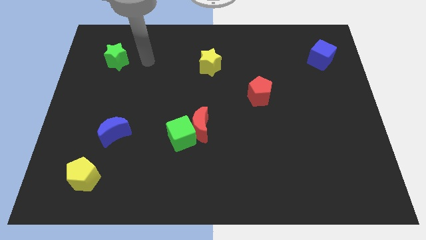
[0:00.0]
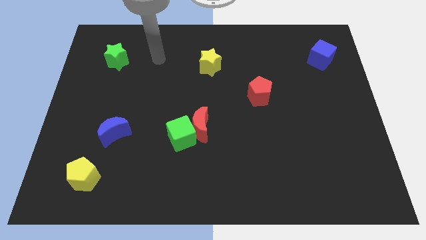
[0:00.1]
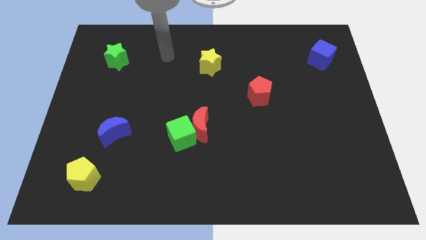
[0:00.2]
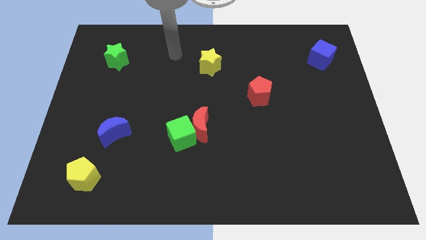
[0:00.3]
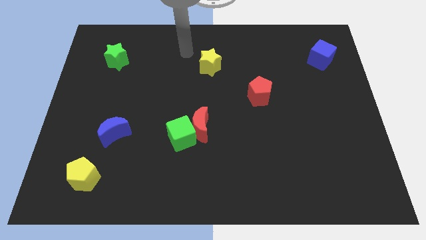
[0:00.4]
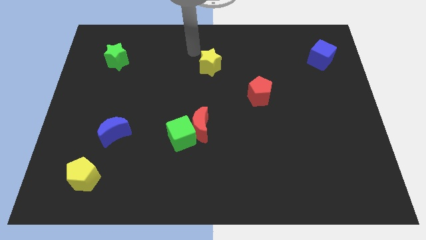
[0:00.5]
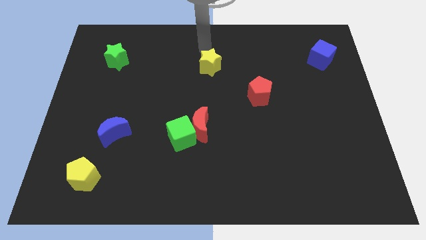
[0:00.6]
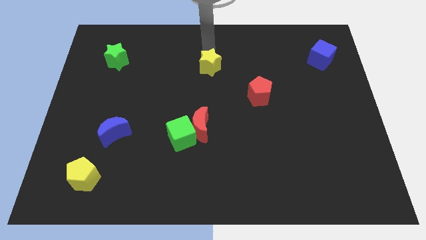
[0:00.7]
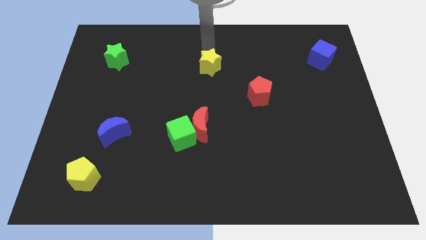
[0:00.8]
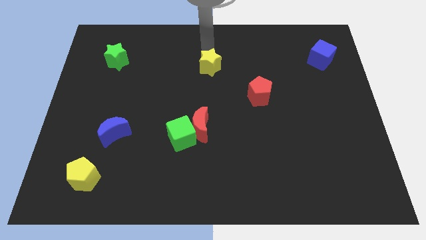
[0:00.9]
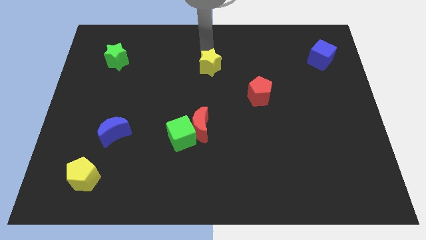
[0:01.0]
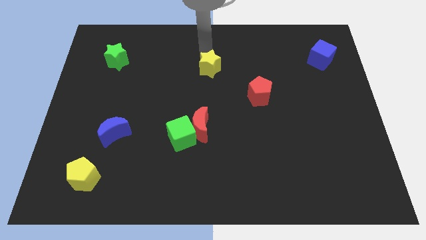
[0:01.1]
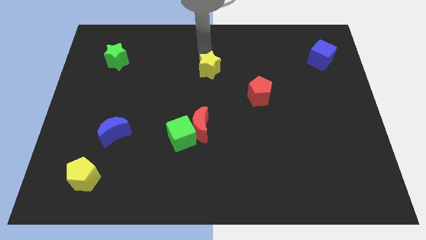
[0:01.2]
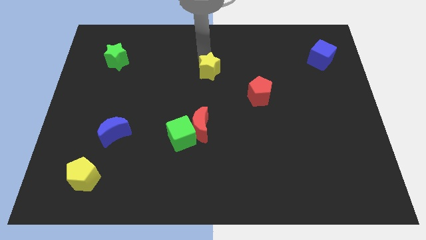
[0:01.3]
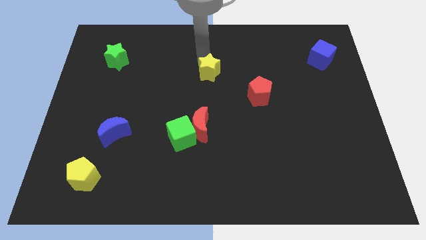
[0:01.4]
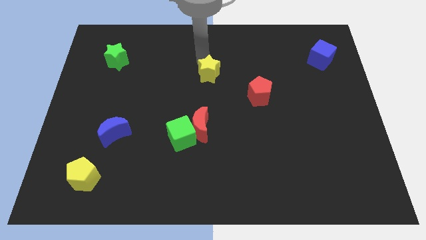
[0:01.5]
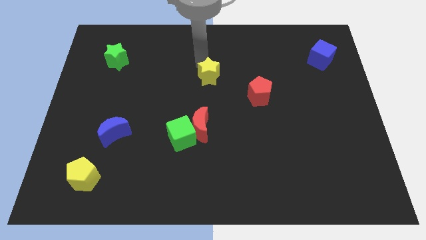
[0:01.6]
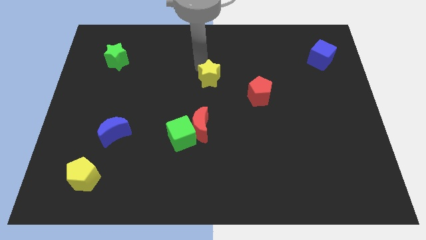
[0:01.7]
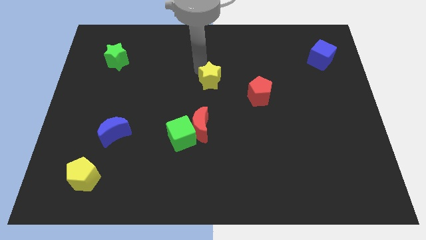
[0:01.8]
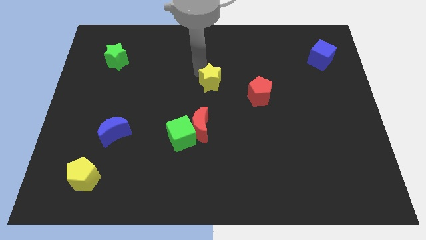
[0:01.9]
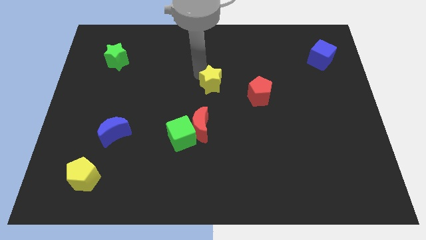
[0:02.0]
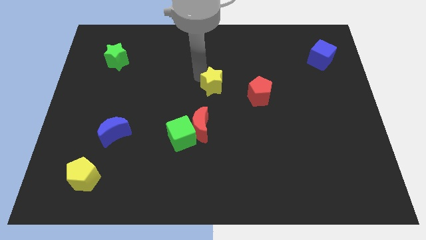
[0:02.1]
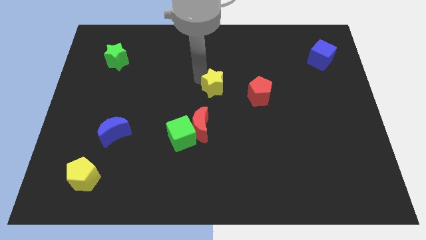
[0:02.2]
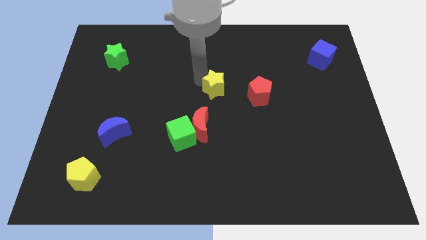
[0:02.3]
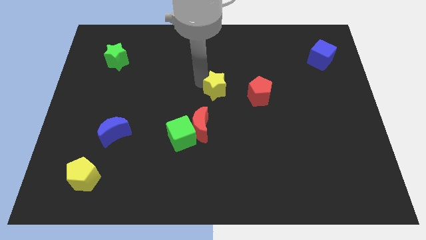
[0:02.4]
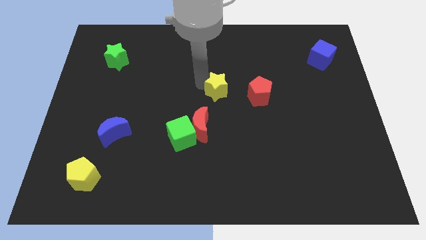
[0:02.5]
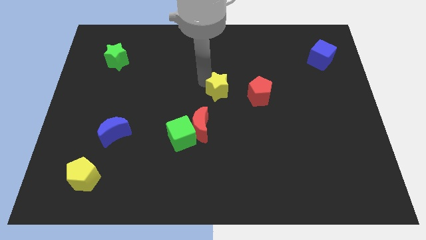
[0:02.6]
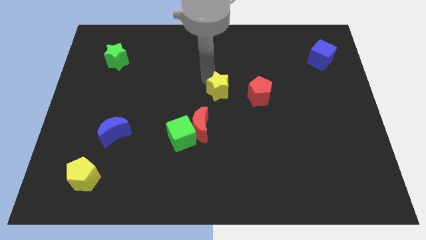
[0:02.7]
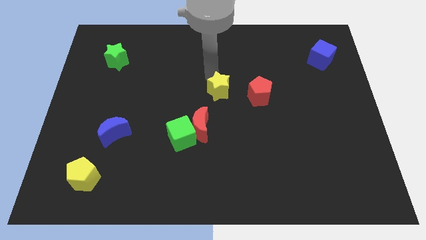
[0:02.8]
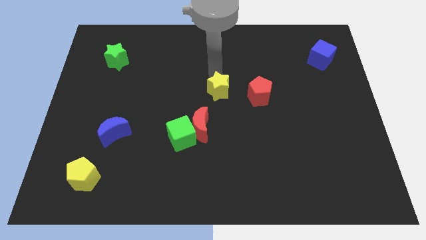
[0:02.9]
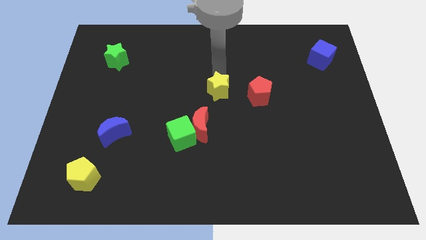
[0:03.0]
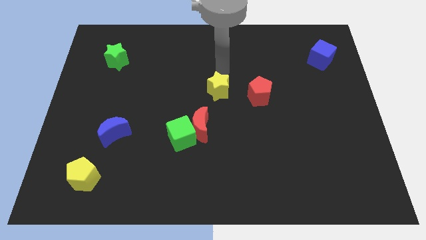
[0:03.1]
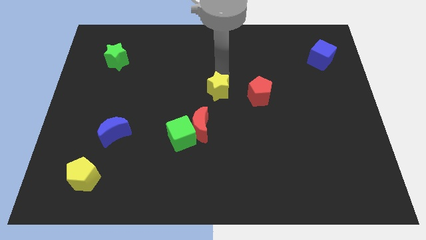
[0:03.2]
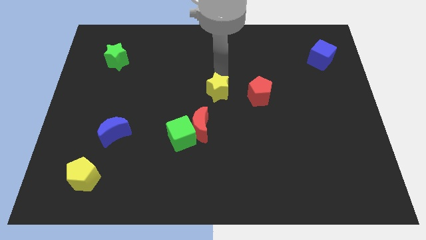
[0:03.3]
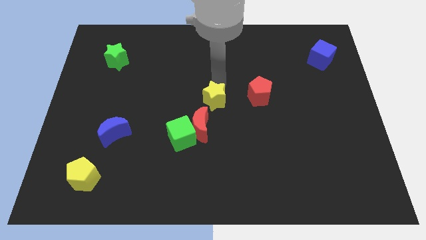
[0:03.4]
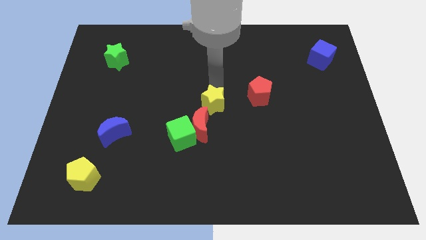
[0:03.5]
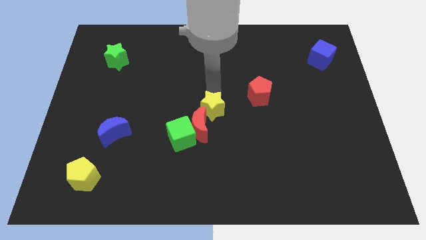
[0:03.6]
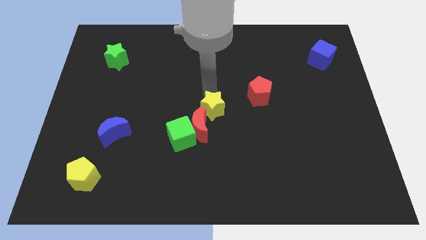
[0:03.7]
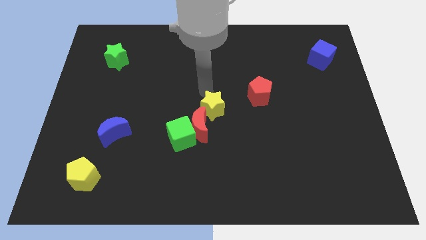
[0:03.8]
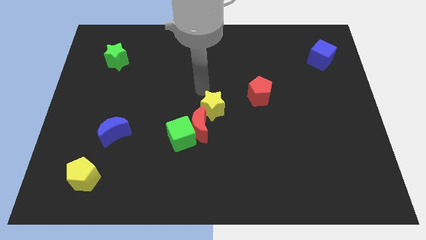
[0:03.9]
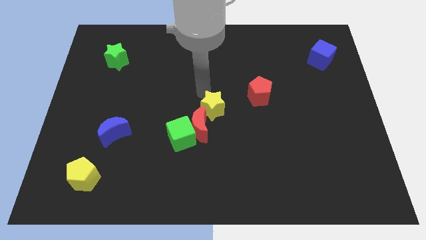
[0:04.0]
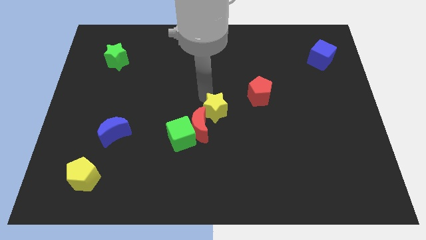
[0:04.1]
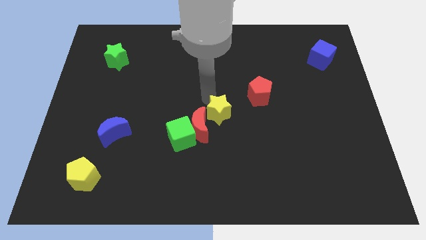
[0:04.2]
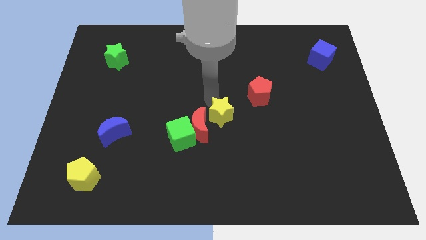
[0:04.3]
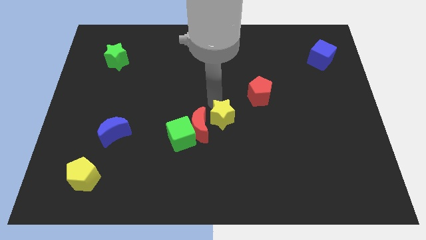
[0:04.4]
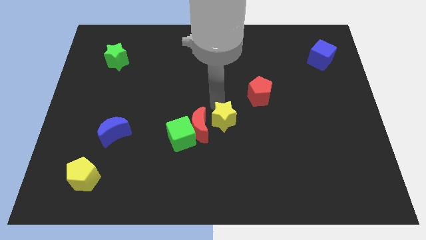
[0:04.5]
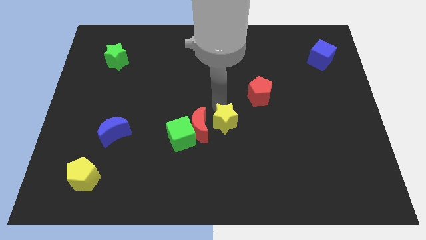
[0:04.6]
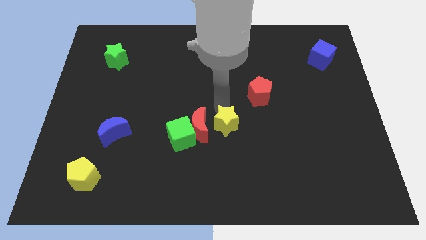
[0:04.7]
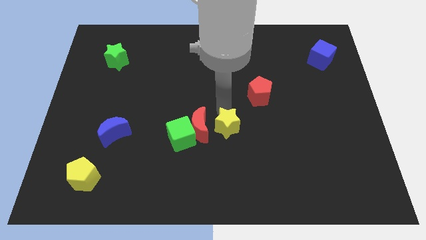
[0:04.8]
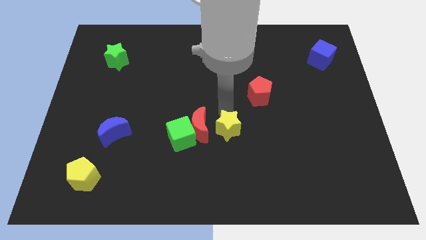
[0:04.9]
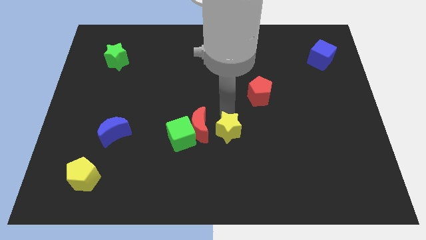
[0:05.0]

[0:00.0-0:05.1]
push the yellow star down

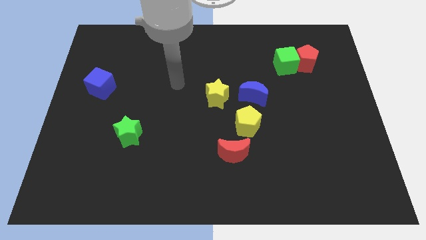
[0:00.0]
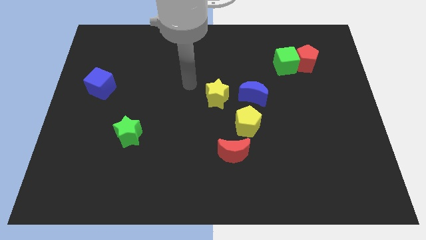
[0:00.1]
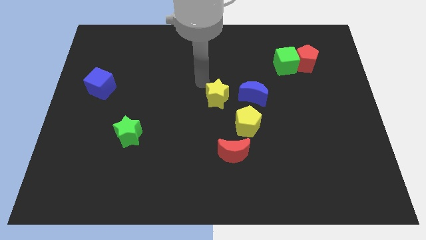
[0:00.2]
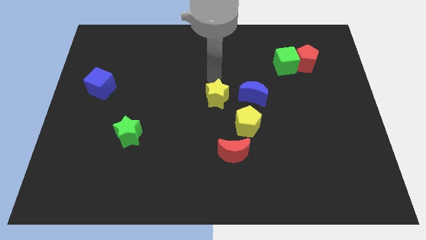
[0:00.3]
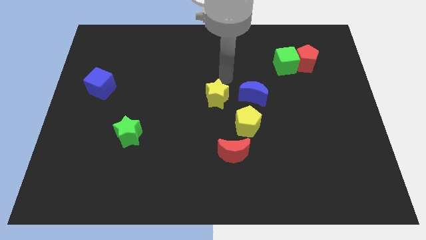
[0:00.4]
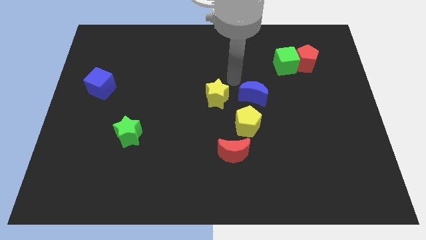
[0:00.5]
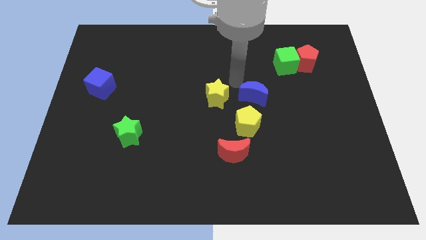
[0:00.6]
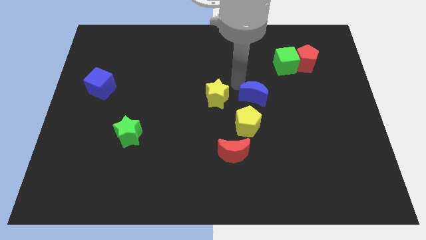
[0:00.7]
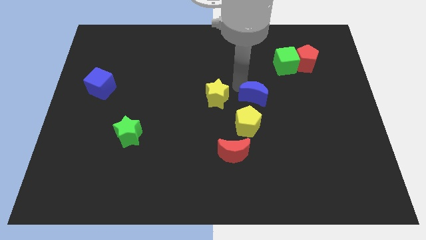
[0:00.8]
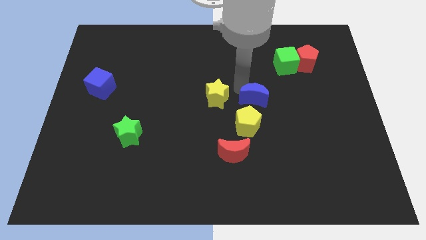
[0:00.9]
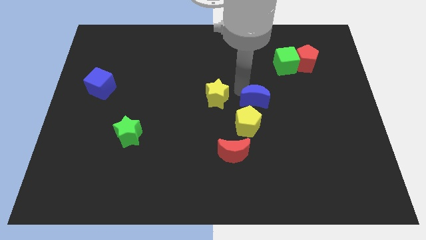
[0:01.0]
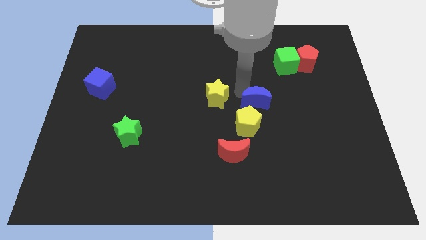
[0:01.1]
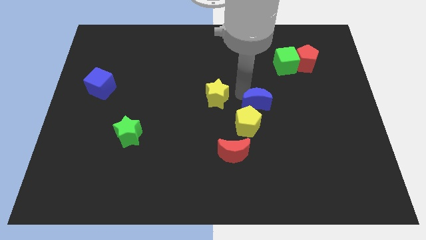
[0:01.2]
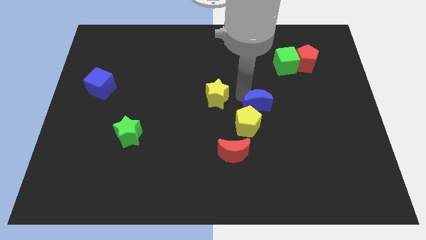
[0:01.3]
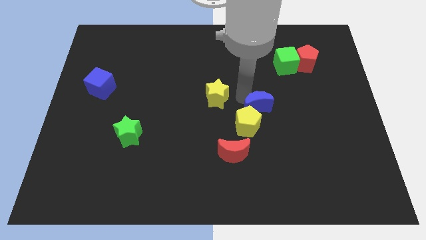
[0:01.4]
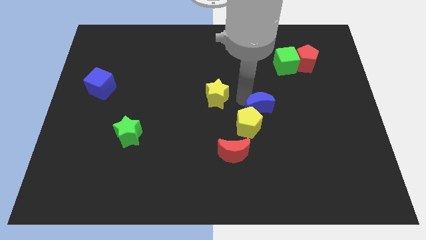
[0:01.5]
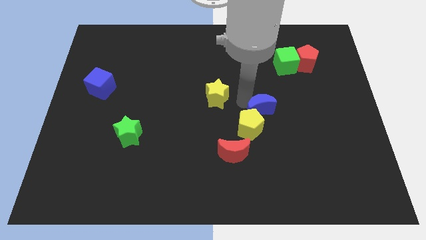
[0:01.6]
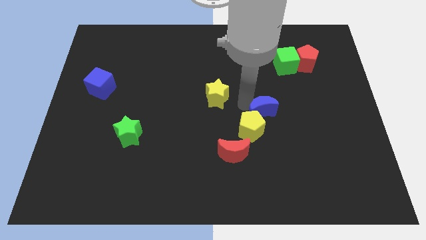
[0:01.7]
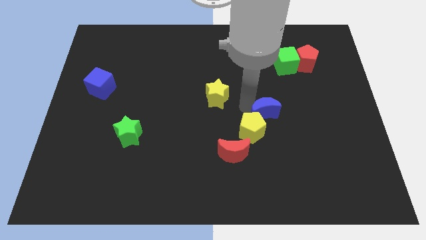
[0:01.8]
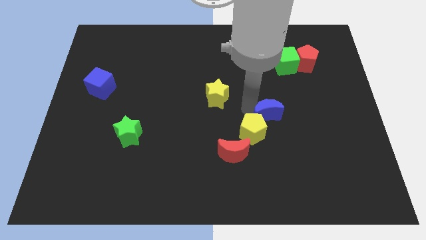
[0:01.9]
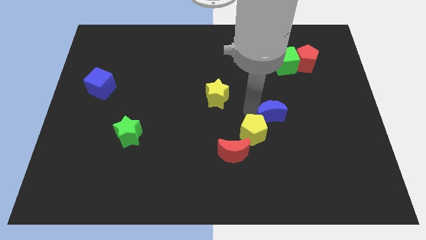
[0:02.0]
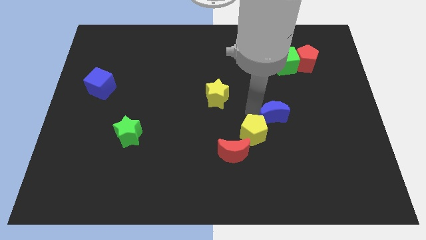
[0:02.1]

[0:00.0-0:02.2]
move the blue moon down and to the right somewhat

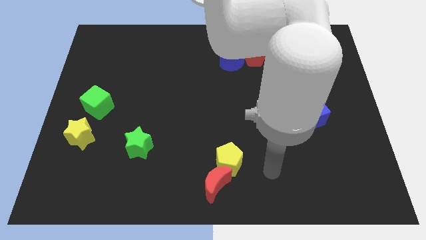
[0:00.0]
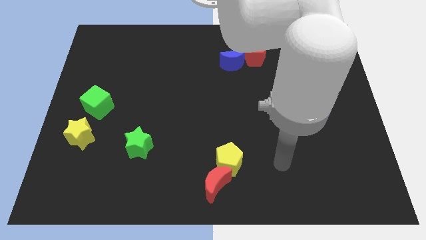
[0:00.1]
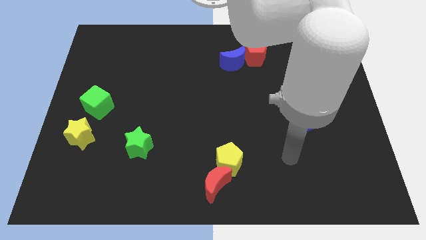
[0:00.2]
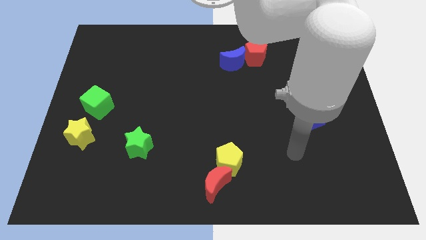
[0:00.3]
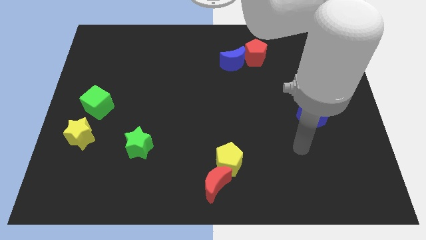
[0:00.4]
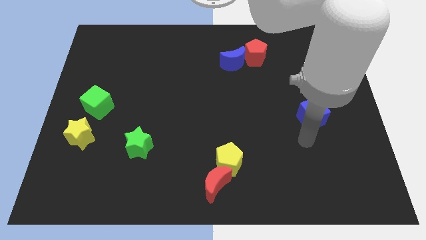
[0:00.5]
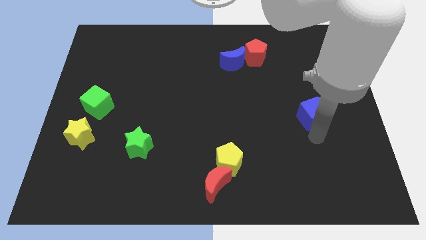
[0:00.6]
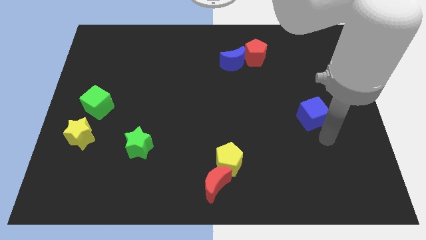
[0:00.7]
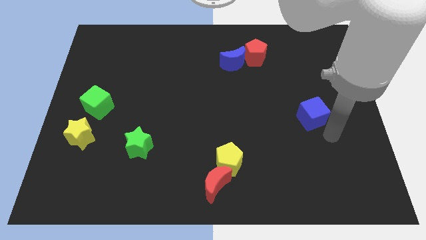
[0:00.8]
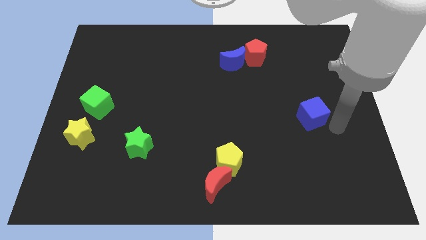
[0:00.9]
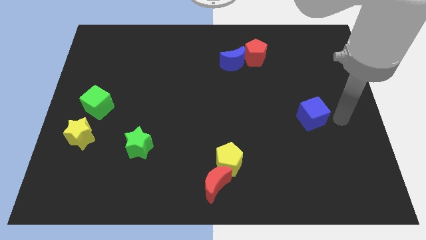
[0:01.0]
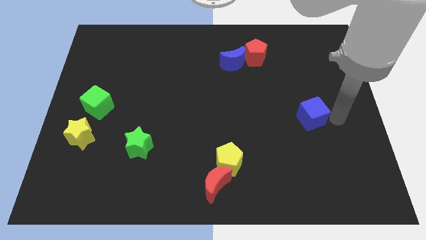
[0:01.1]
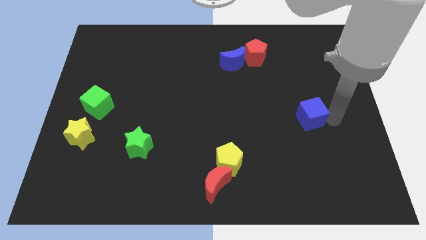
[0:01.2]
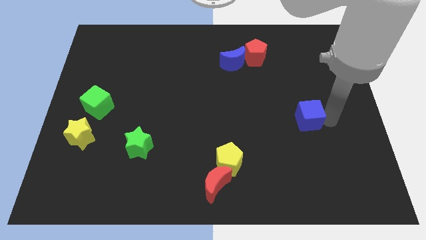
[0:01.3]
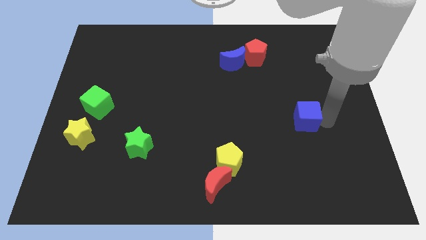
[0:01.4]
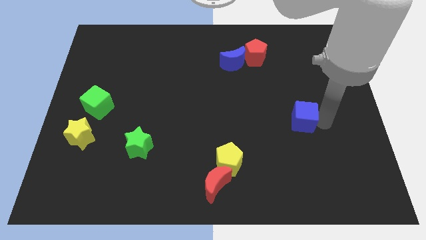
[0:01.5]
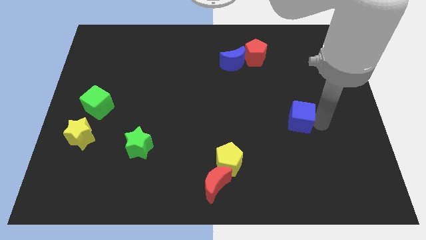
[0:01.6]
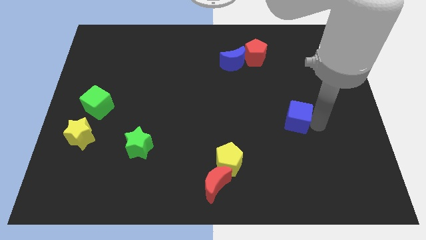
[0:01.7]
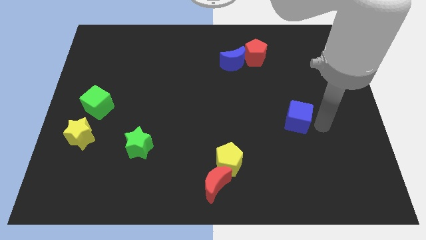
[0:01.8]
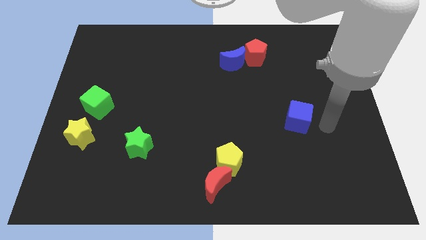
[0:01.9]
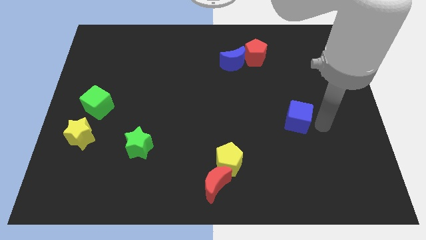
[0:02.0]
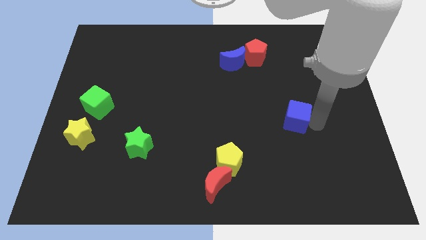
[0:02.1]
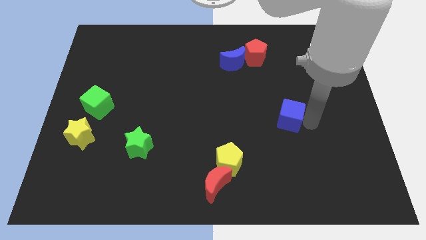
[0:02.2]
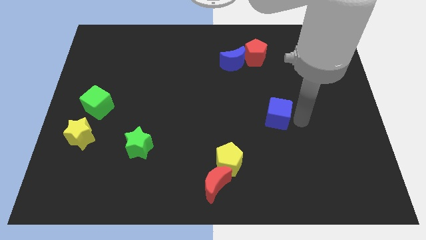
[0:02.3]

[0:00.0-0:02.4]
slightly push the blue cube to the left
